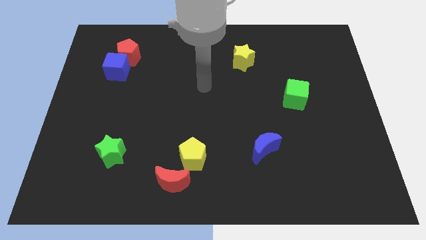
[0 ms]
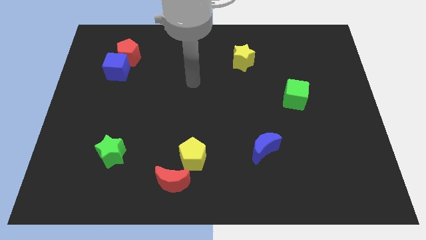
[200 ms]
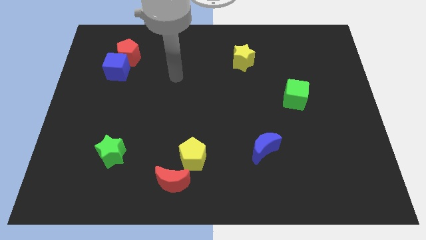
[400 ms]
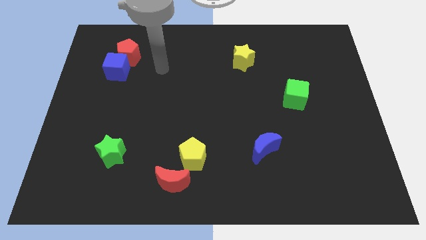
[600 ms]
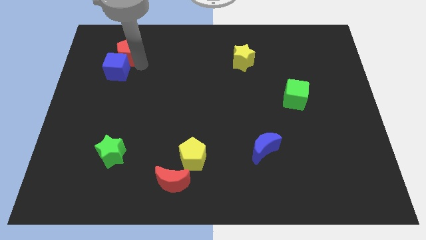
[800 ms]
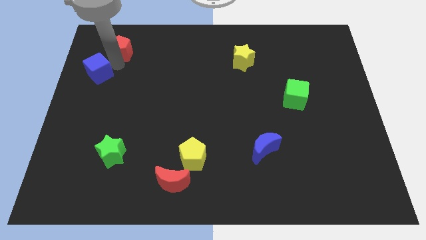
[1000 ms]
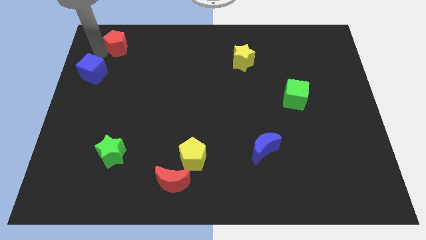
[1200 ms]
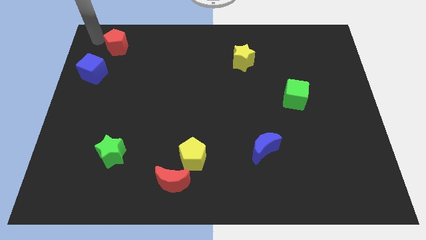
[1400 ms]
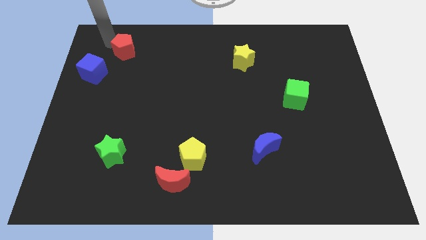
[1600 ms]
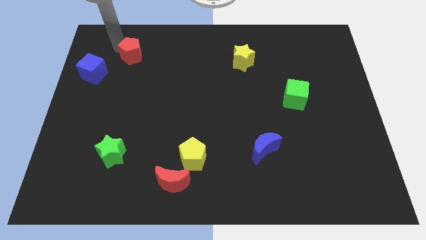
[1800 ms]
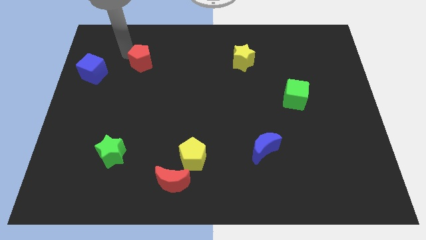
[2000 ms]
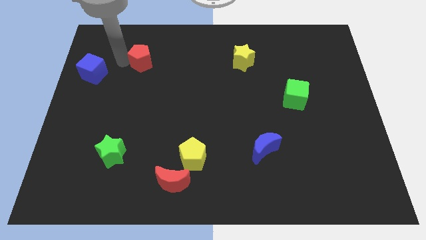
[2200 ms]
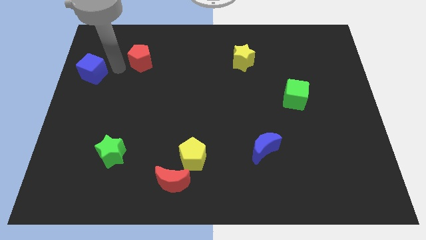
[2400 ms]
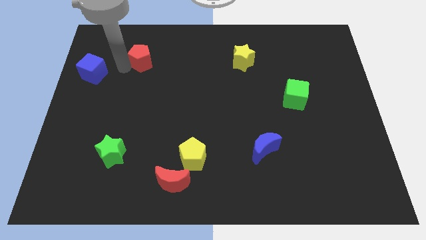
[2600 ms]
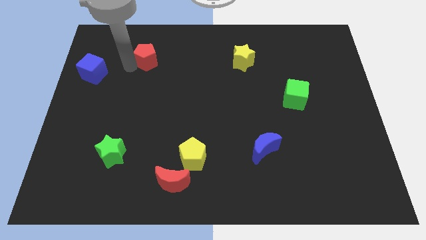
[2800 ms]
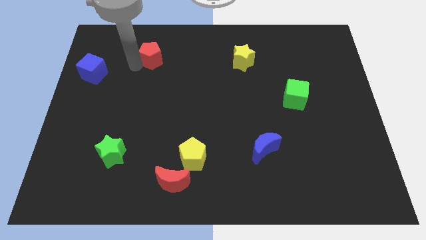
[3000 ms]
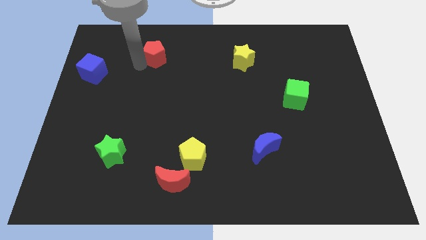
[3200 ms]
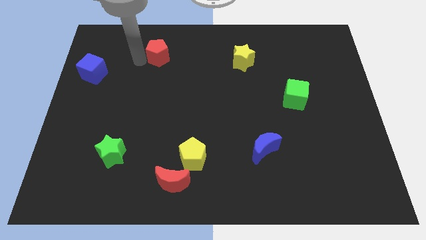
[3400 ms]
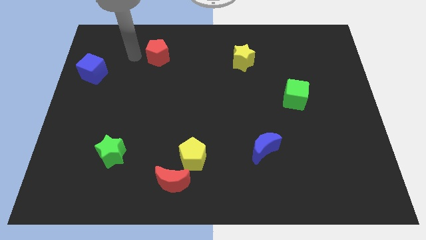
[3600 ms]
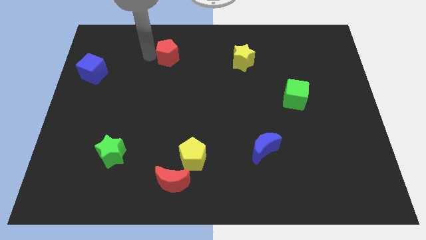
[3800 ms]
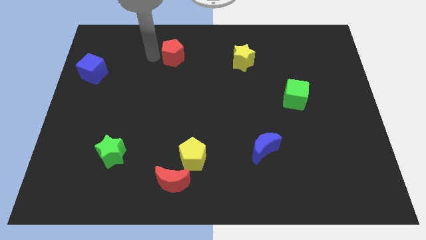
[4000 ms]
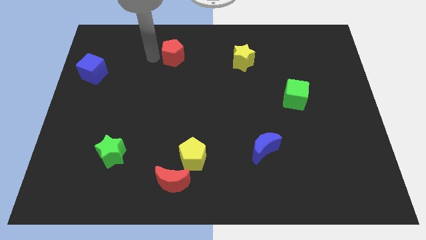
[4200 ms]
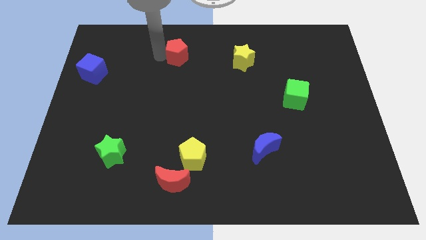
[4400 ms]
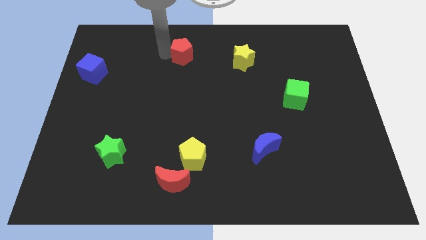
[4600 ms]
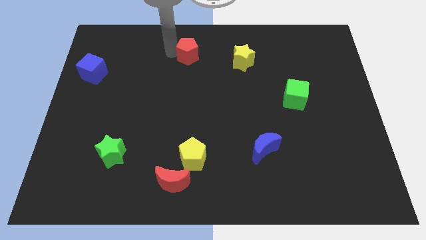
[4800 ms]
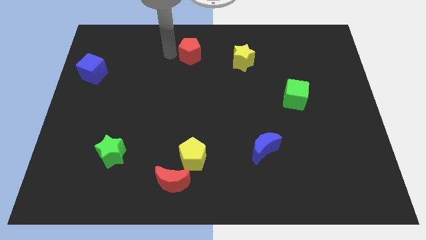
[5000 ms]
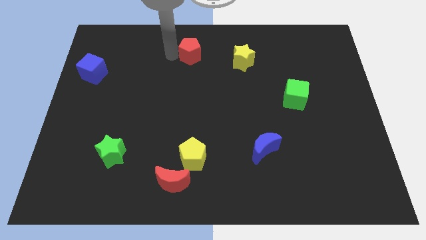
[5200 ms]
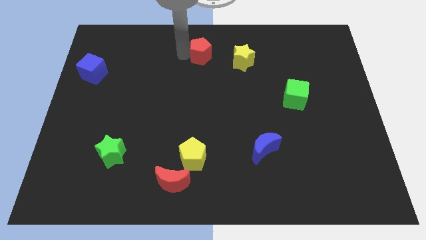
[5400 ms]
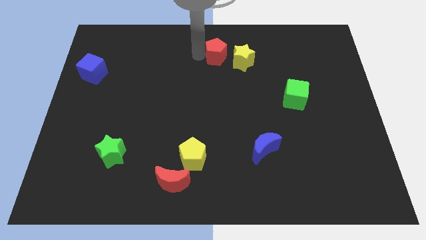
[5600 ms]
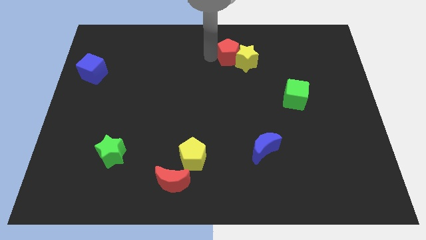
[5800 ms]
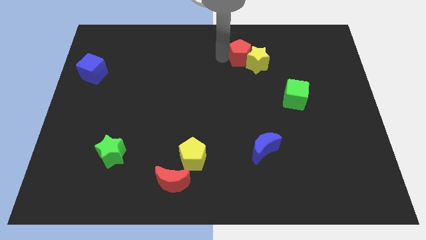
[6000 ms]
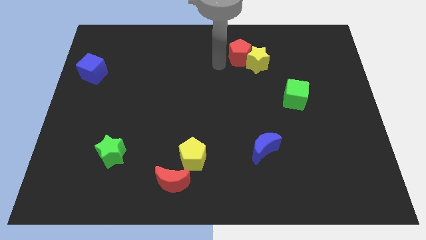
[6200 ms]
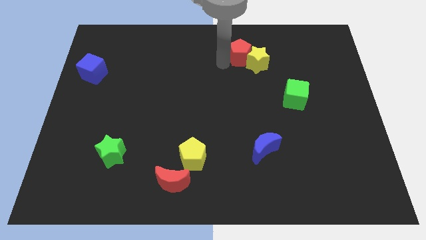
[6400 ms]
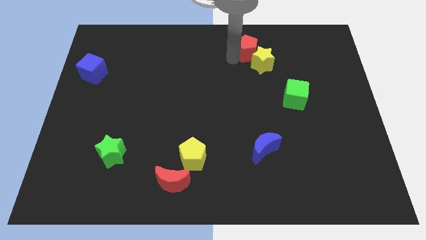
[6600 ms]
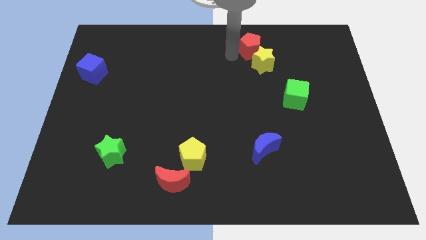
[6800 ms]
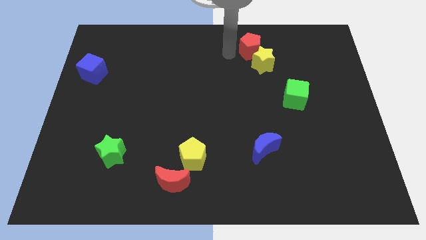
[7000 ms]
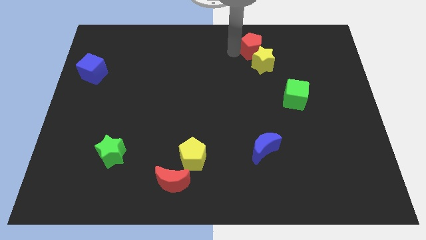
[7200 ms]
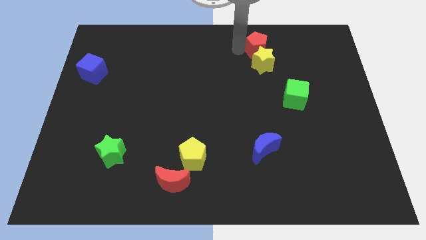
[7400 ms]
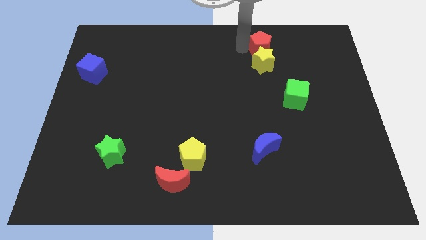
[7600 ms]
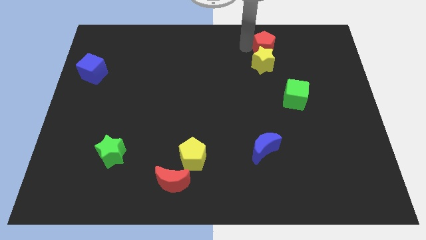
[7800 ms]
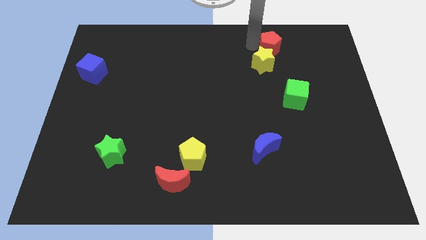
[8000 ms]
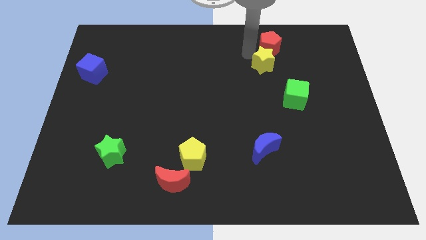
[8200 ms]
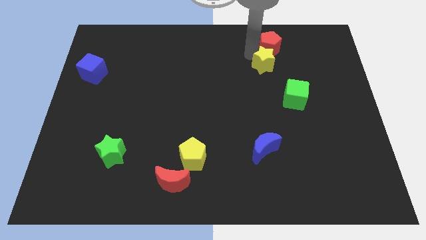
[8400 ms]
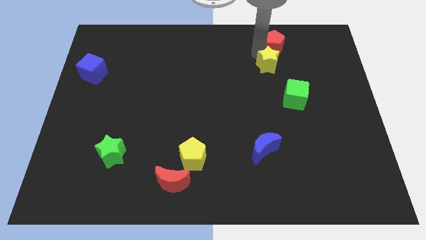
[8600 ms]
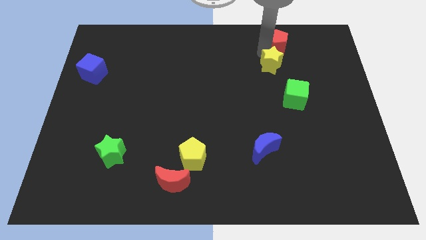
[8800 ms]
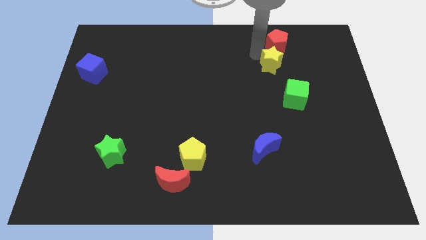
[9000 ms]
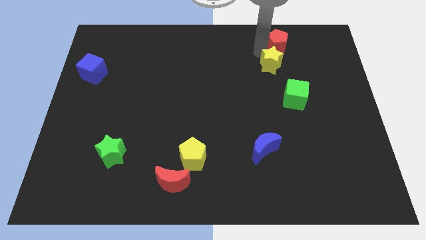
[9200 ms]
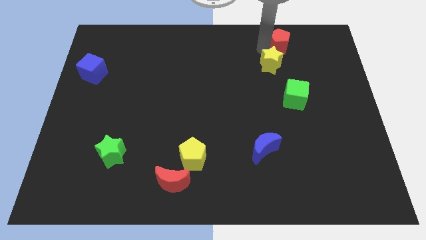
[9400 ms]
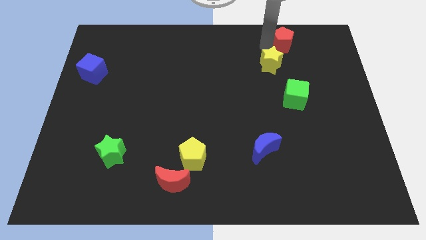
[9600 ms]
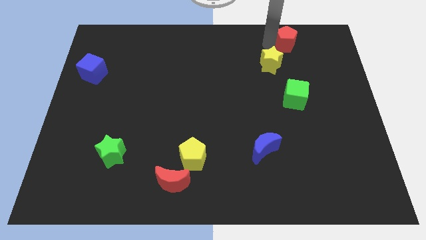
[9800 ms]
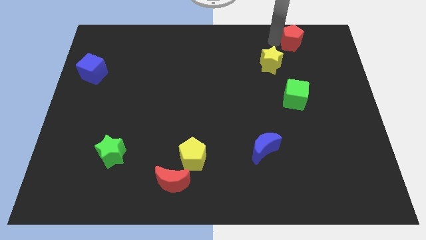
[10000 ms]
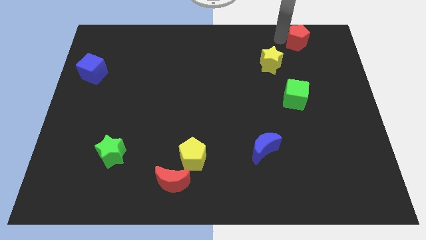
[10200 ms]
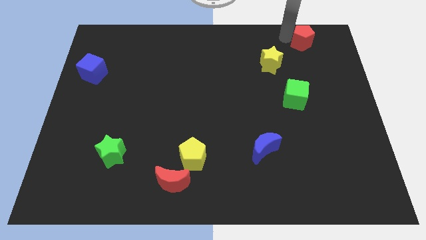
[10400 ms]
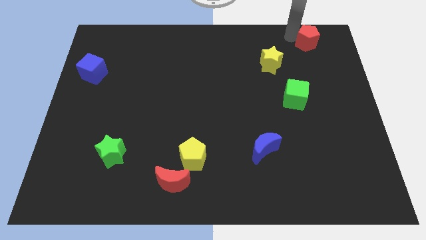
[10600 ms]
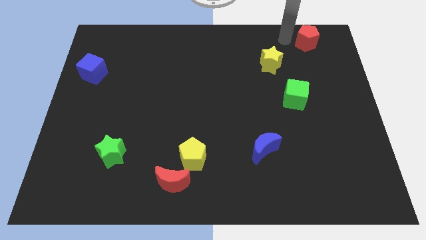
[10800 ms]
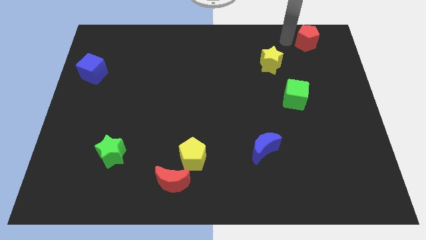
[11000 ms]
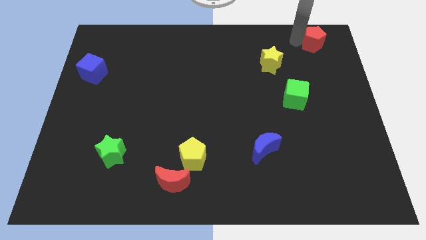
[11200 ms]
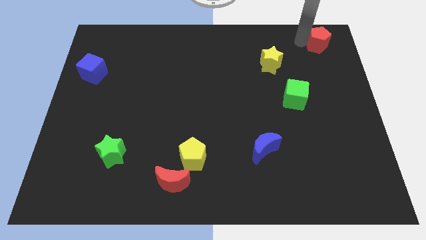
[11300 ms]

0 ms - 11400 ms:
slide the red pentagon to the top right

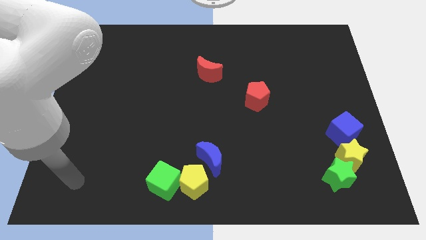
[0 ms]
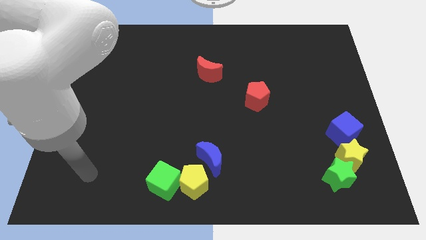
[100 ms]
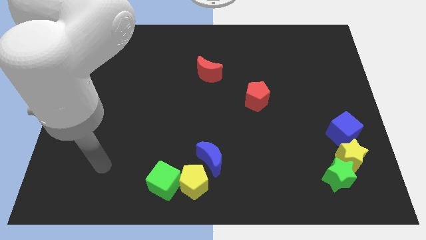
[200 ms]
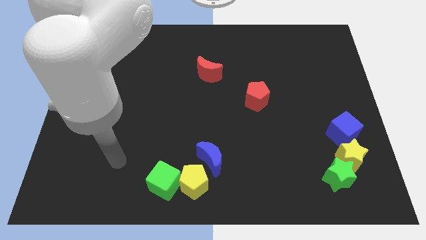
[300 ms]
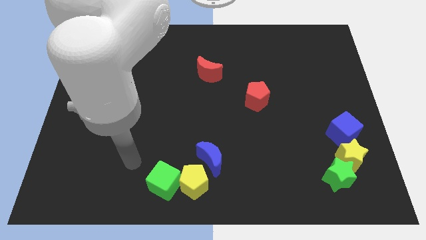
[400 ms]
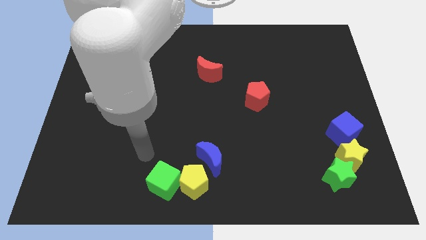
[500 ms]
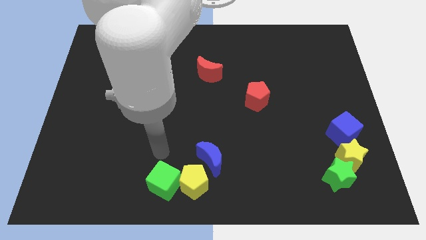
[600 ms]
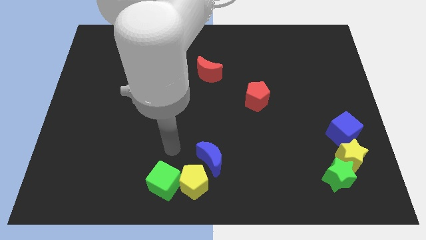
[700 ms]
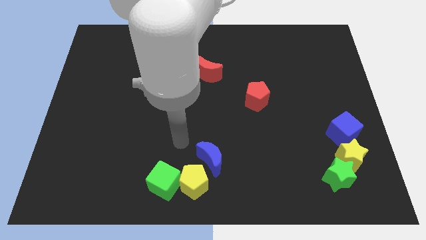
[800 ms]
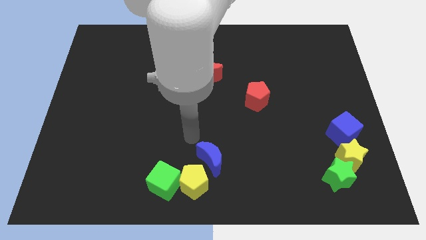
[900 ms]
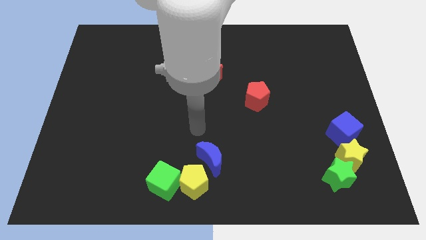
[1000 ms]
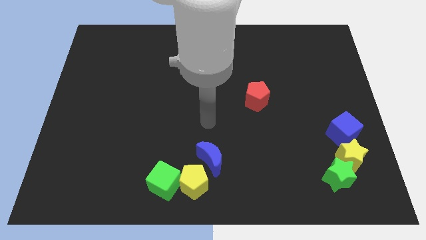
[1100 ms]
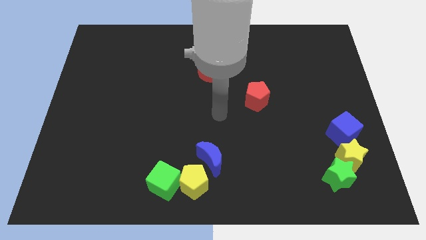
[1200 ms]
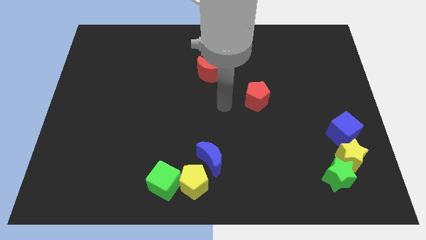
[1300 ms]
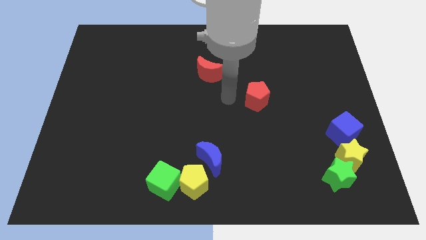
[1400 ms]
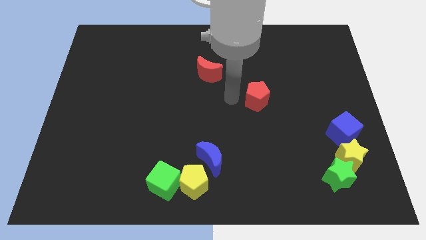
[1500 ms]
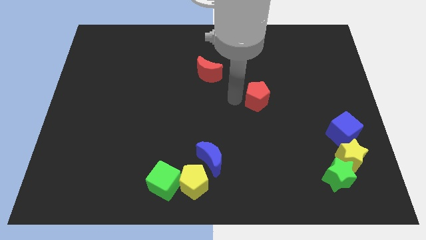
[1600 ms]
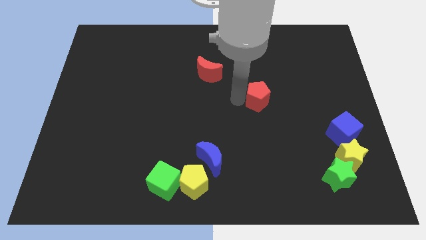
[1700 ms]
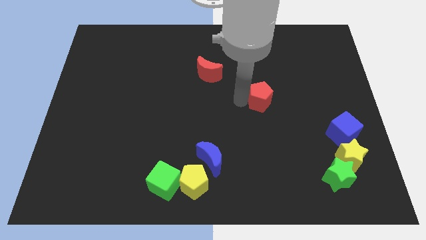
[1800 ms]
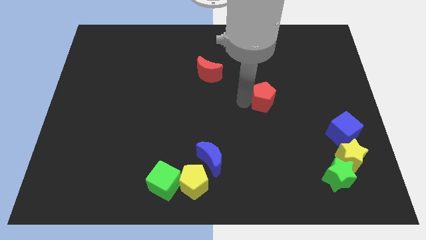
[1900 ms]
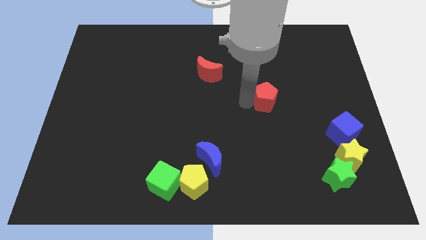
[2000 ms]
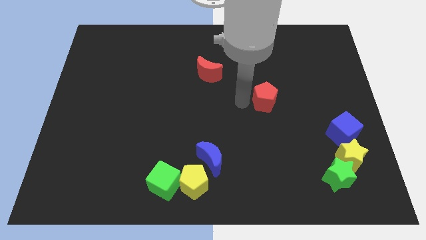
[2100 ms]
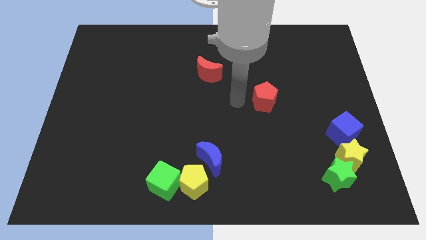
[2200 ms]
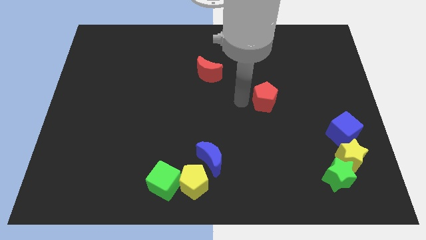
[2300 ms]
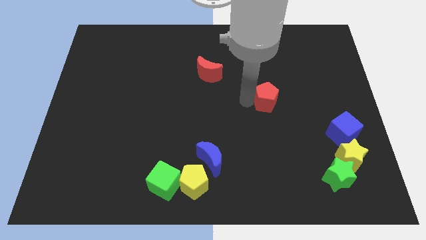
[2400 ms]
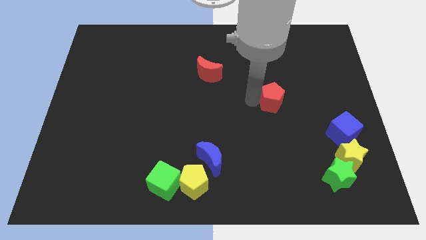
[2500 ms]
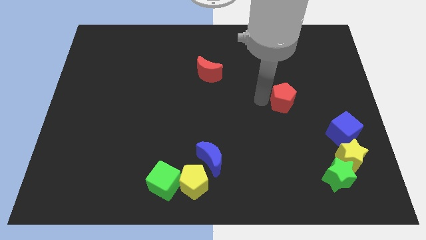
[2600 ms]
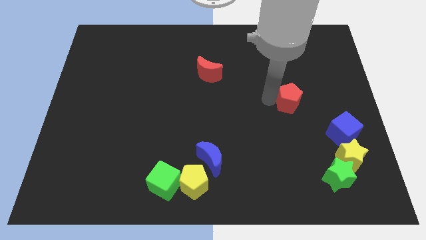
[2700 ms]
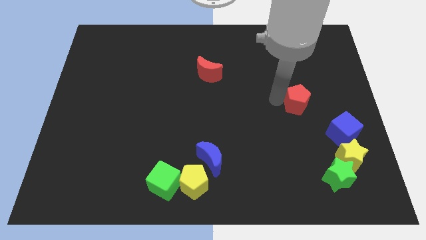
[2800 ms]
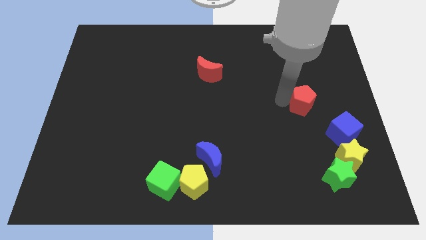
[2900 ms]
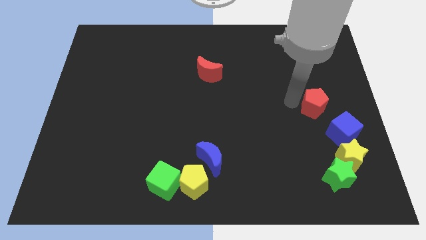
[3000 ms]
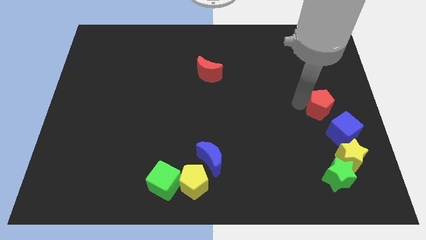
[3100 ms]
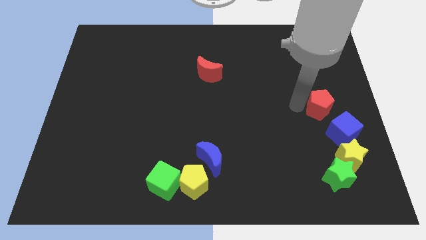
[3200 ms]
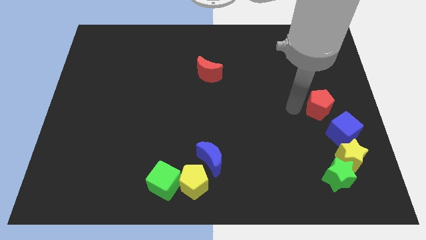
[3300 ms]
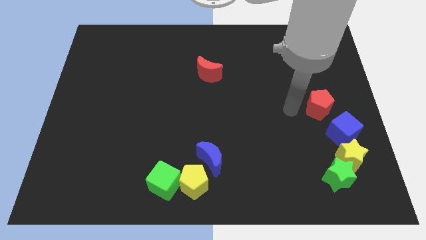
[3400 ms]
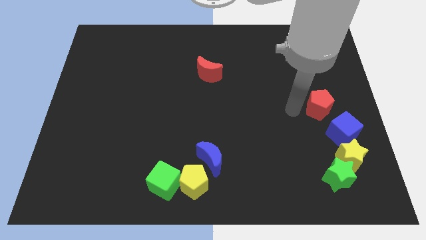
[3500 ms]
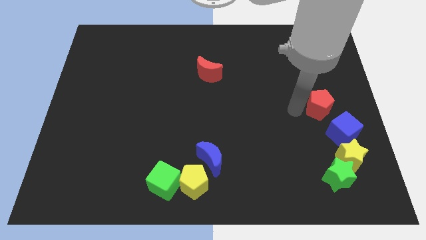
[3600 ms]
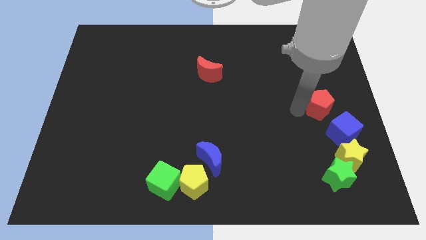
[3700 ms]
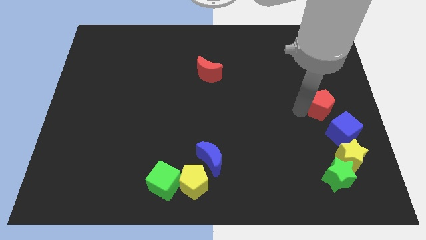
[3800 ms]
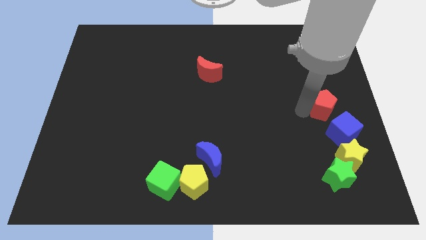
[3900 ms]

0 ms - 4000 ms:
put the red pentagon to the center right
